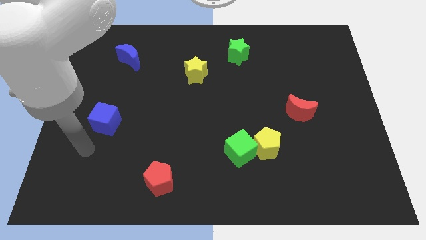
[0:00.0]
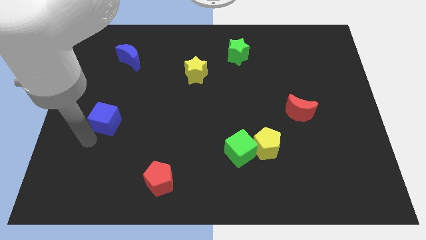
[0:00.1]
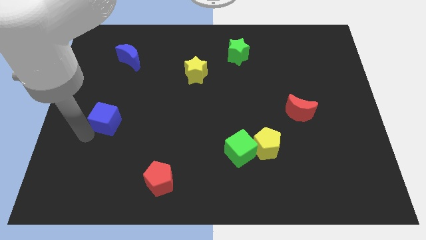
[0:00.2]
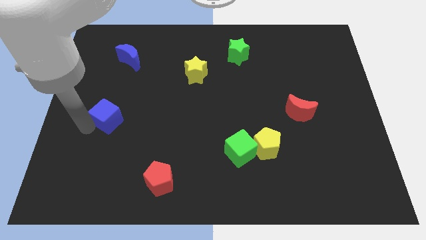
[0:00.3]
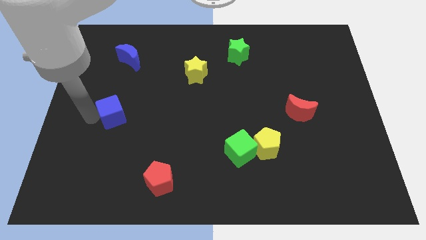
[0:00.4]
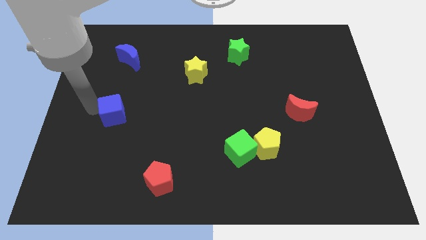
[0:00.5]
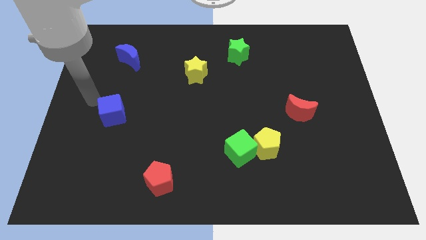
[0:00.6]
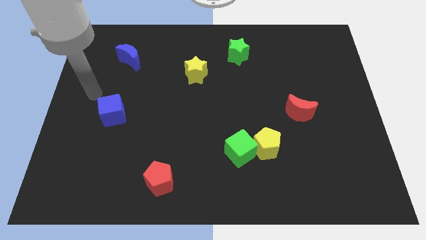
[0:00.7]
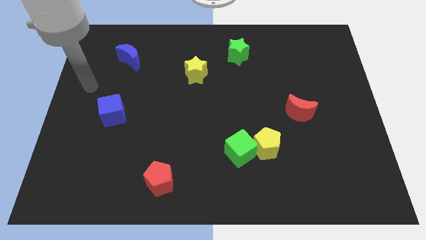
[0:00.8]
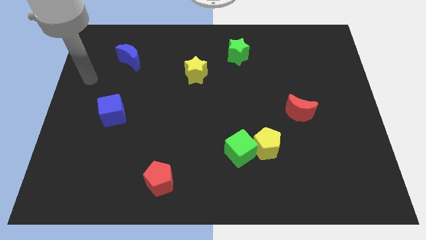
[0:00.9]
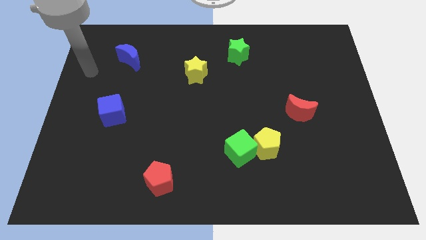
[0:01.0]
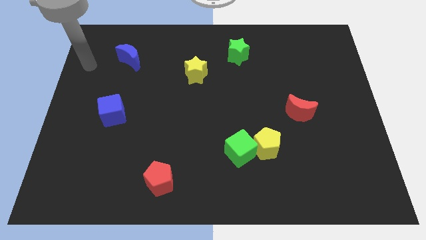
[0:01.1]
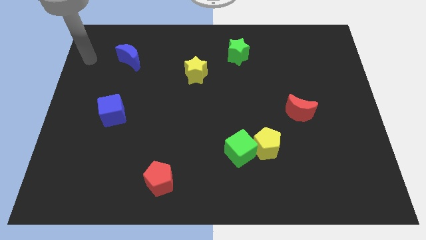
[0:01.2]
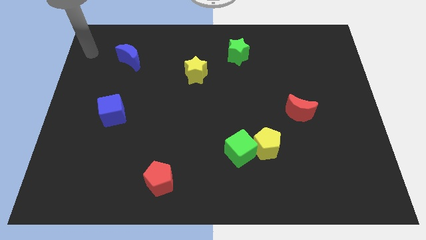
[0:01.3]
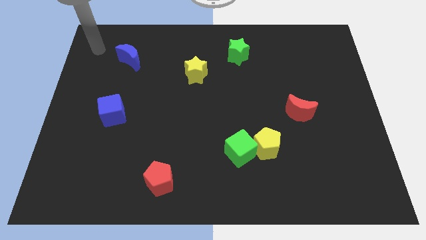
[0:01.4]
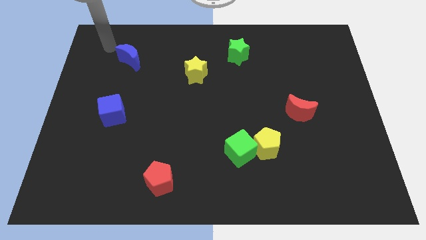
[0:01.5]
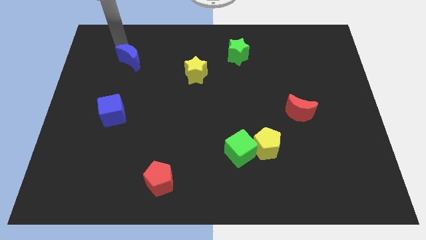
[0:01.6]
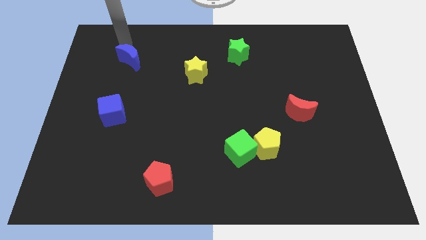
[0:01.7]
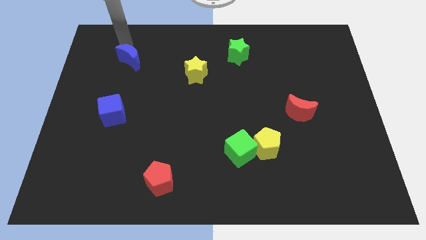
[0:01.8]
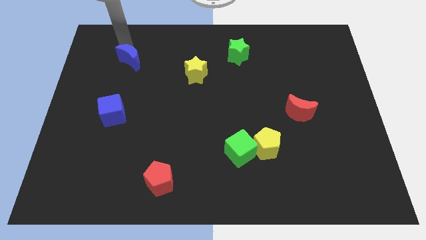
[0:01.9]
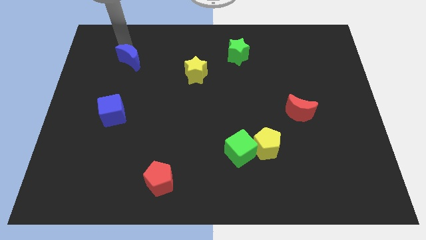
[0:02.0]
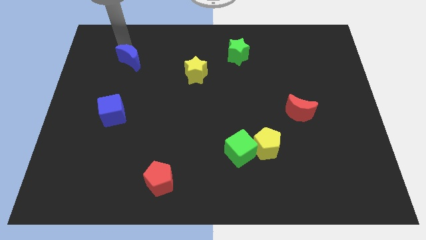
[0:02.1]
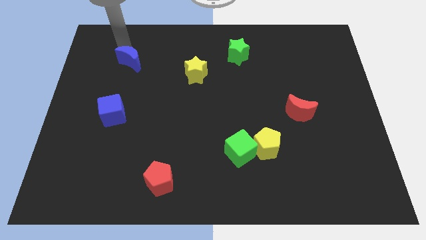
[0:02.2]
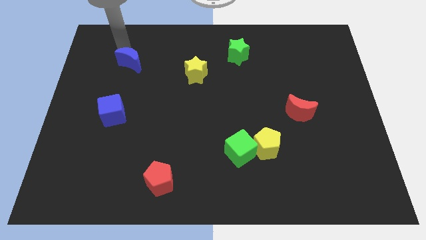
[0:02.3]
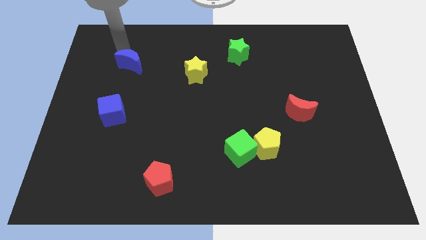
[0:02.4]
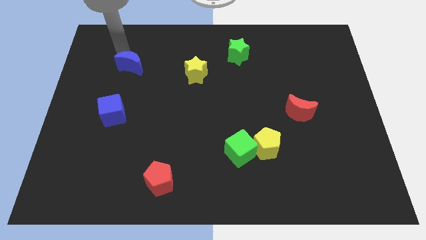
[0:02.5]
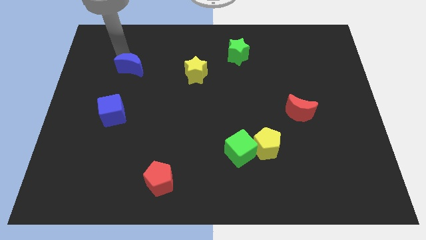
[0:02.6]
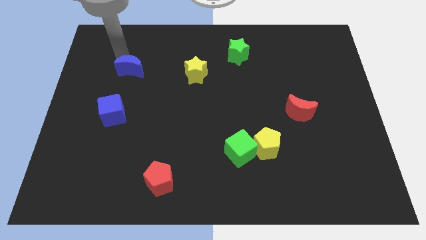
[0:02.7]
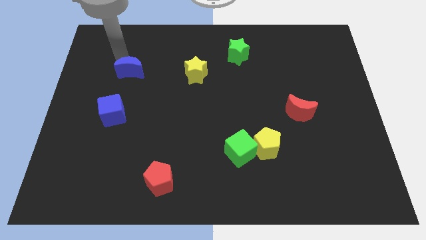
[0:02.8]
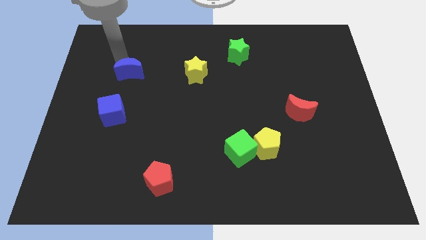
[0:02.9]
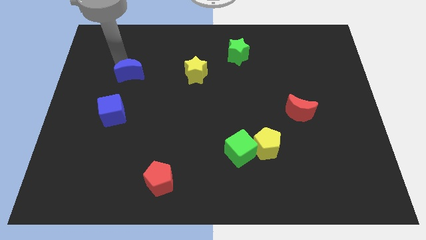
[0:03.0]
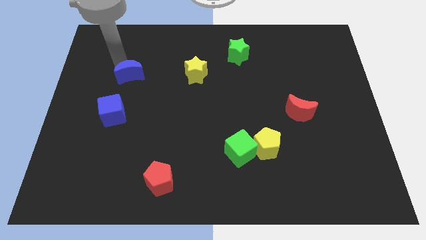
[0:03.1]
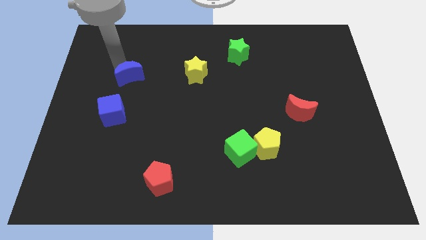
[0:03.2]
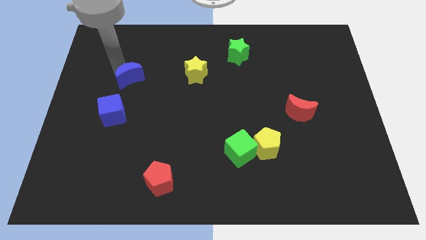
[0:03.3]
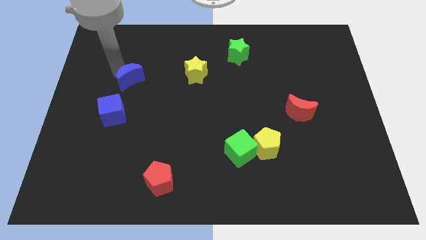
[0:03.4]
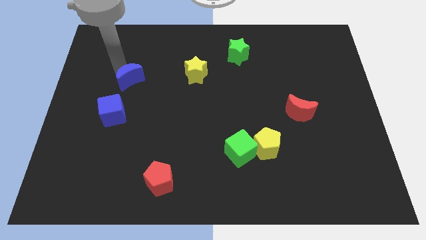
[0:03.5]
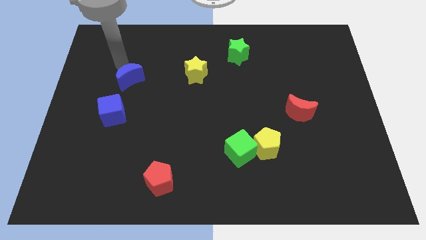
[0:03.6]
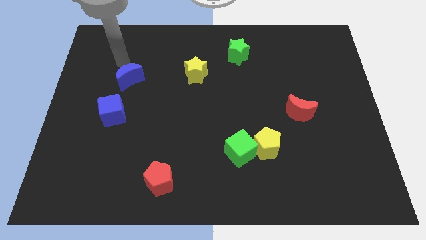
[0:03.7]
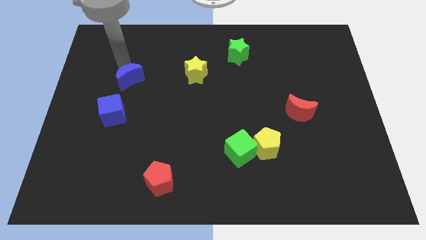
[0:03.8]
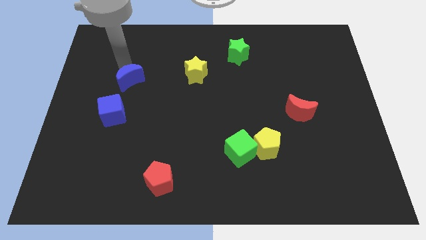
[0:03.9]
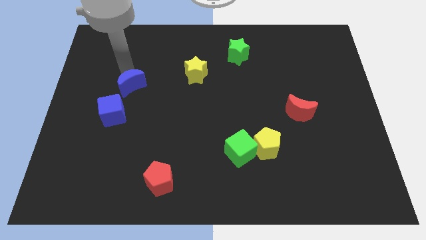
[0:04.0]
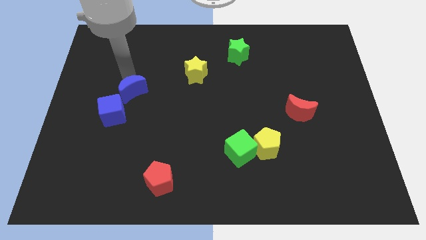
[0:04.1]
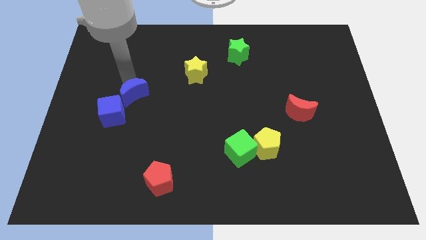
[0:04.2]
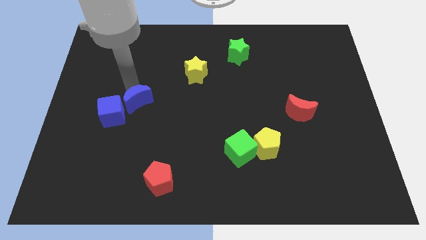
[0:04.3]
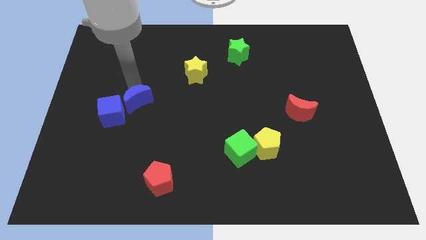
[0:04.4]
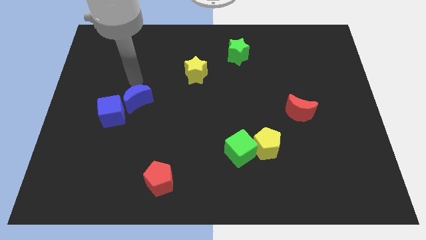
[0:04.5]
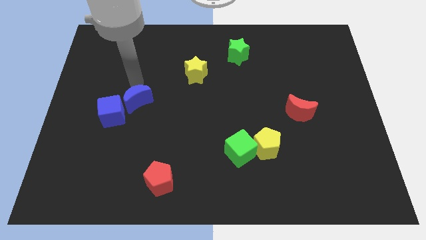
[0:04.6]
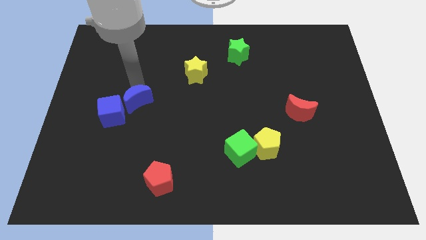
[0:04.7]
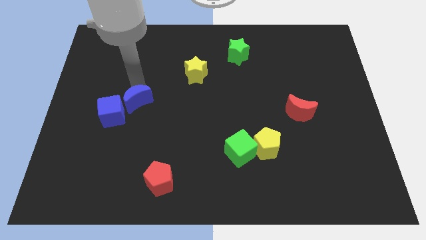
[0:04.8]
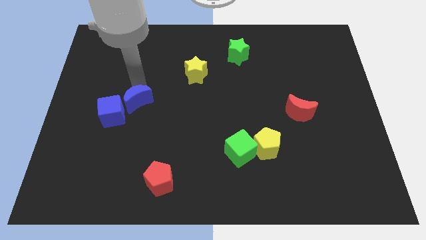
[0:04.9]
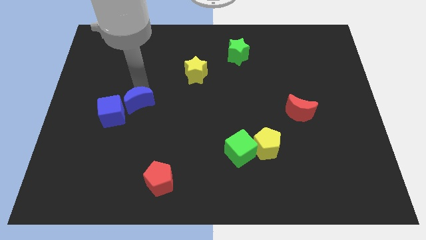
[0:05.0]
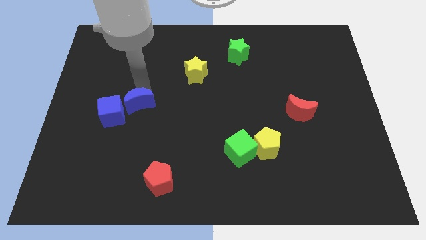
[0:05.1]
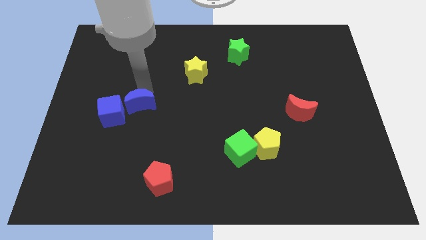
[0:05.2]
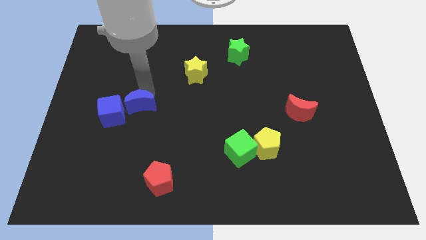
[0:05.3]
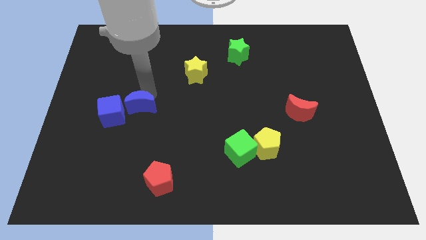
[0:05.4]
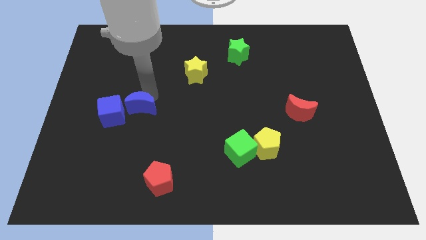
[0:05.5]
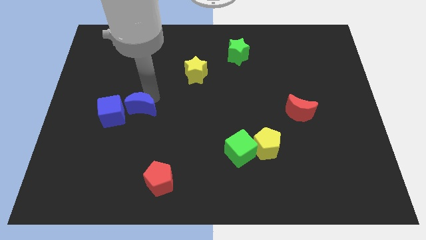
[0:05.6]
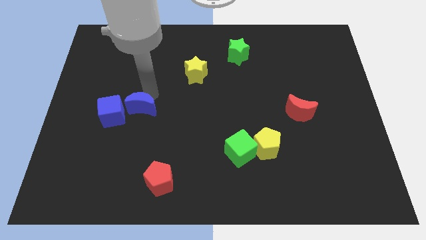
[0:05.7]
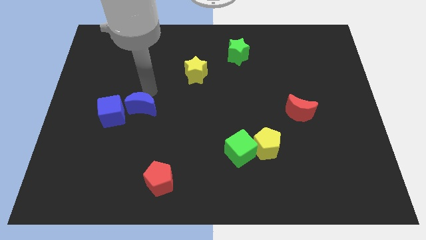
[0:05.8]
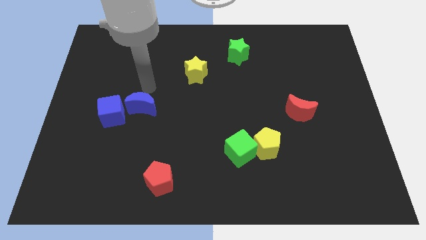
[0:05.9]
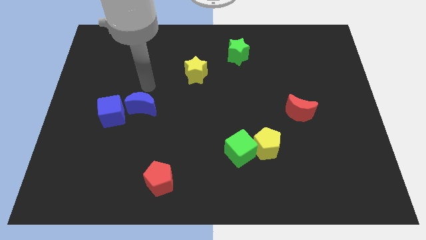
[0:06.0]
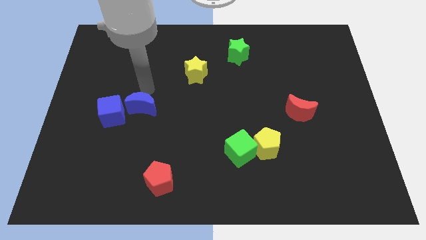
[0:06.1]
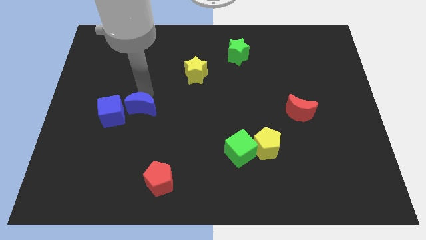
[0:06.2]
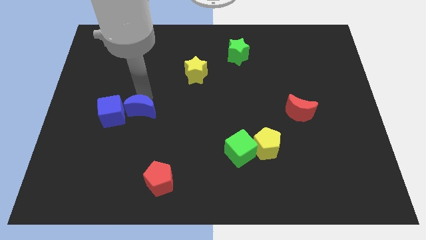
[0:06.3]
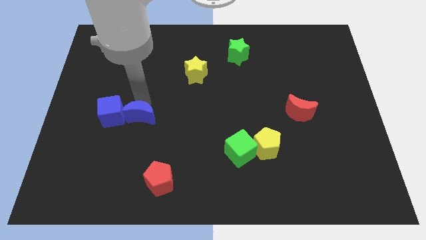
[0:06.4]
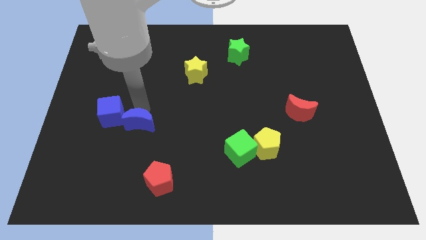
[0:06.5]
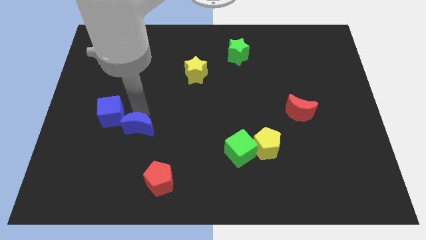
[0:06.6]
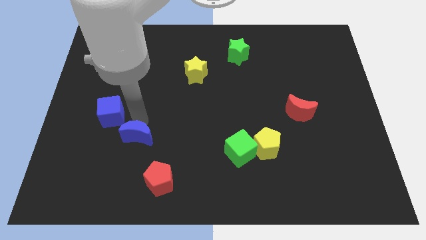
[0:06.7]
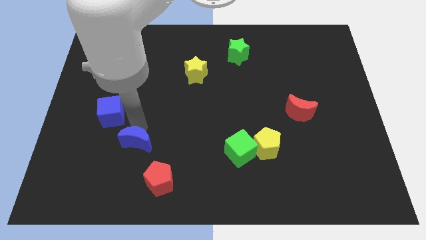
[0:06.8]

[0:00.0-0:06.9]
push the blue moon to the top left of the red pentagon

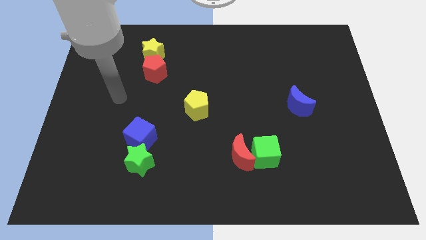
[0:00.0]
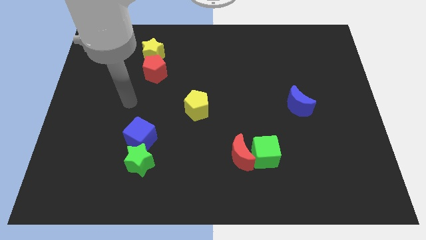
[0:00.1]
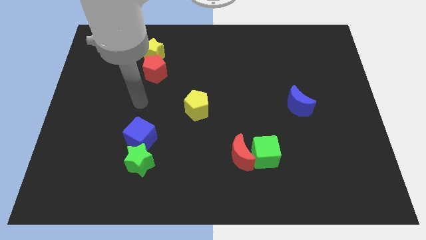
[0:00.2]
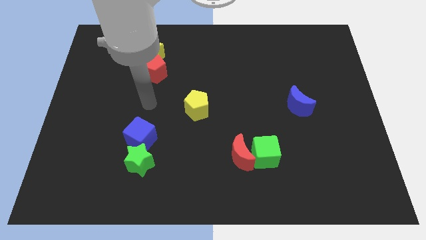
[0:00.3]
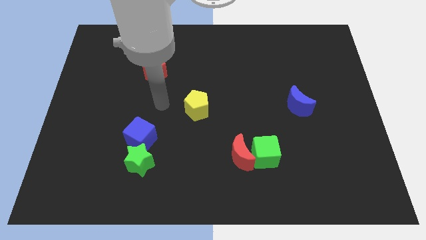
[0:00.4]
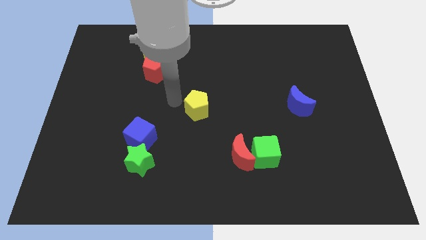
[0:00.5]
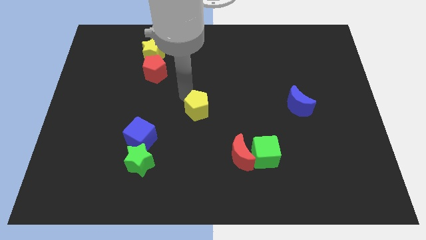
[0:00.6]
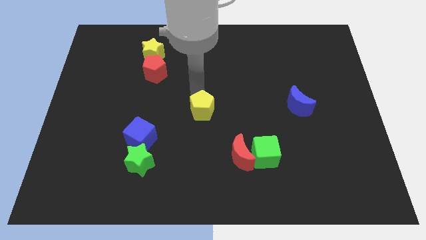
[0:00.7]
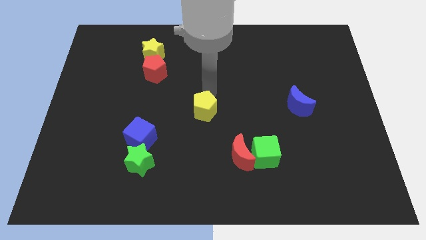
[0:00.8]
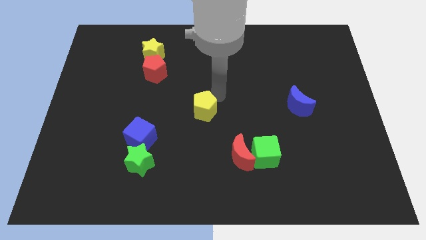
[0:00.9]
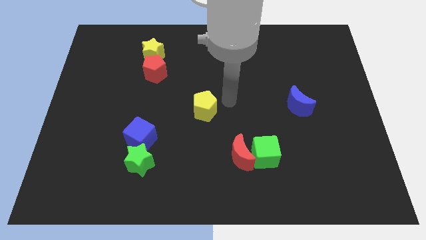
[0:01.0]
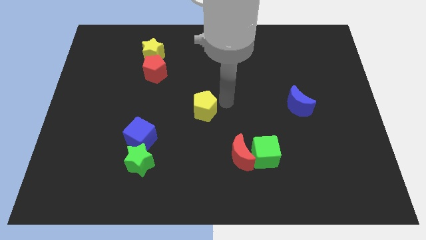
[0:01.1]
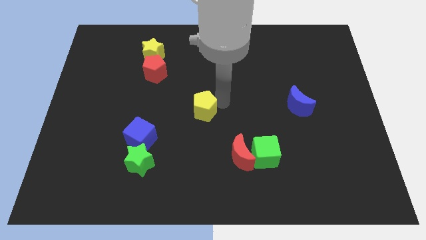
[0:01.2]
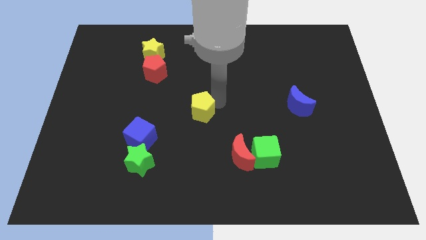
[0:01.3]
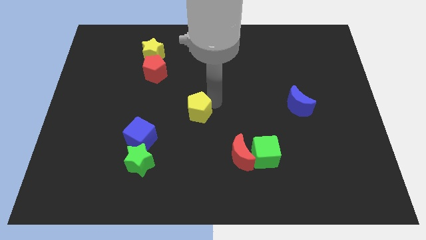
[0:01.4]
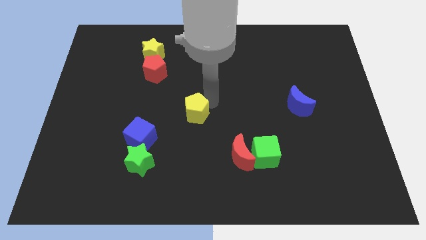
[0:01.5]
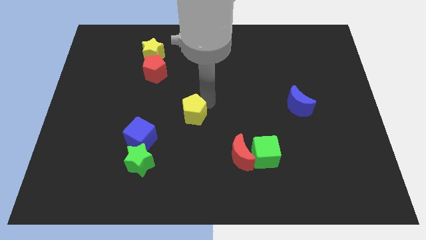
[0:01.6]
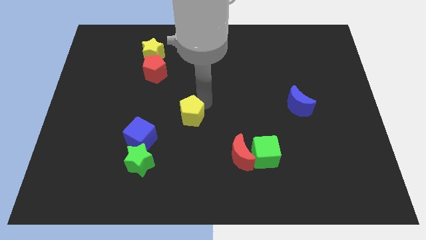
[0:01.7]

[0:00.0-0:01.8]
push the yellow pentagon diagonally up and to the right of the blue cube
